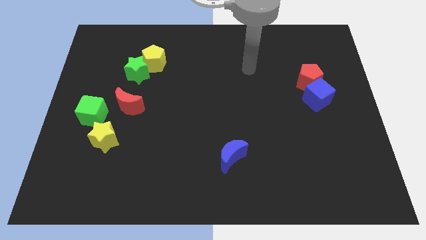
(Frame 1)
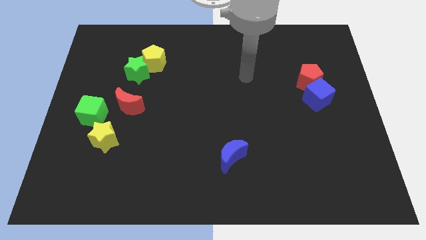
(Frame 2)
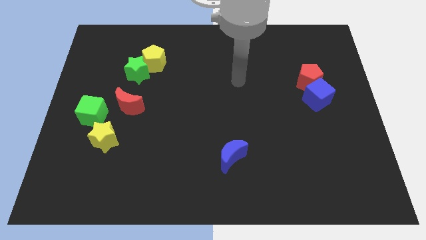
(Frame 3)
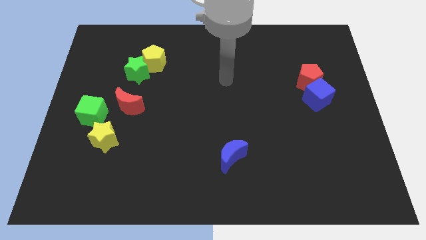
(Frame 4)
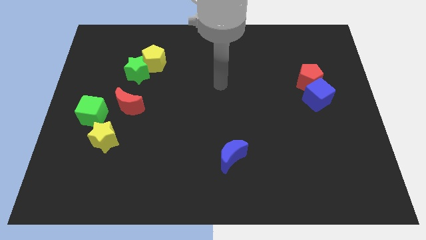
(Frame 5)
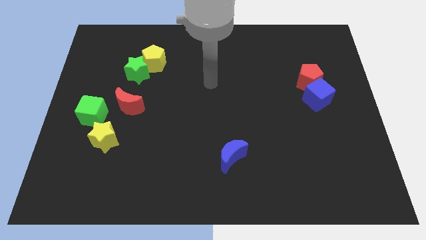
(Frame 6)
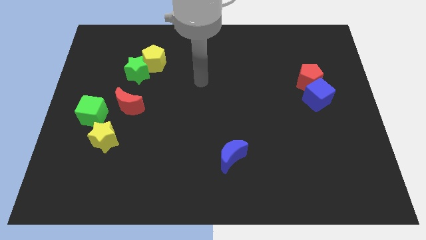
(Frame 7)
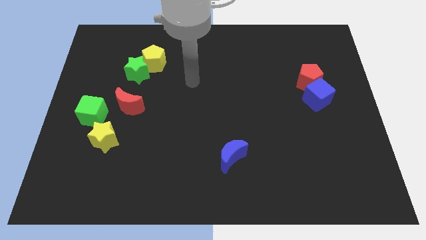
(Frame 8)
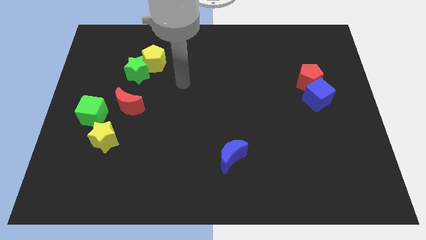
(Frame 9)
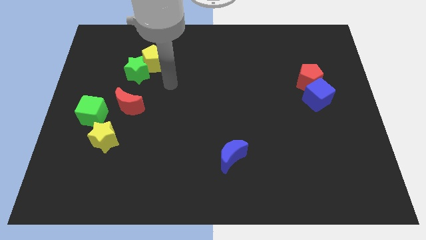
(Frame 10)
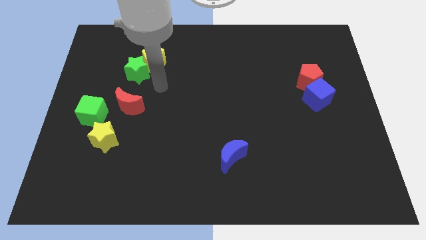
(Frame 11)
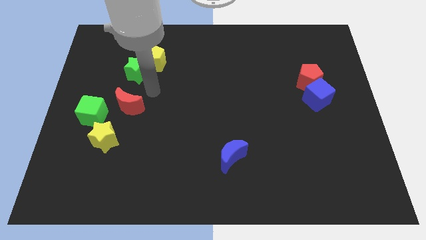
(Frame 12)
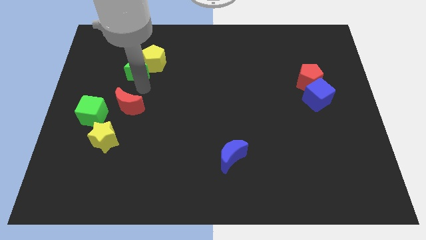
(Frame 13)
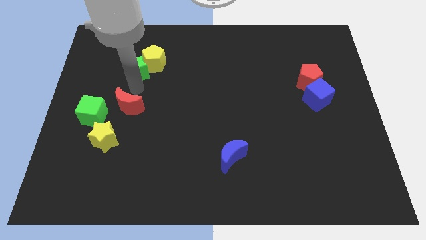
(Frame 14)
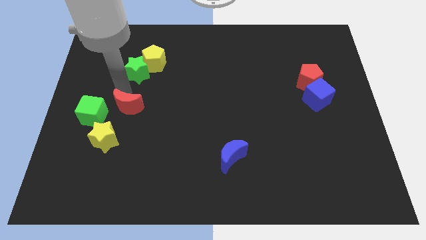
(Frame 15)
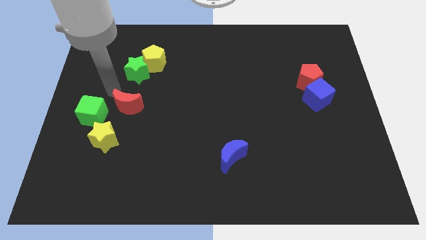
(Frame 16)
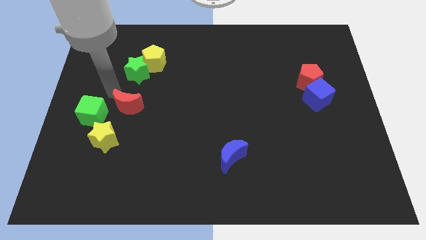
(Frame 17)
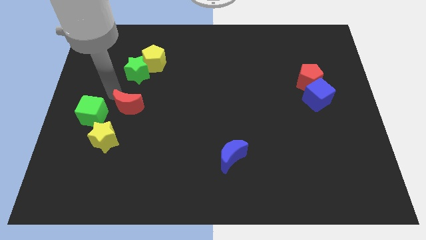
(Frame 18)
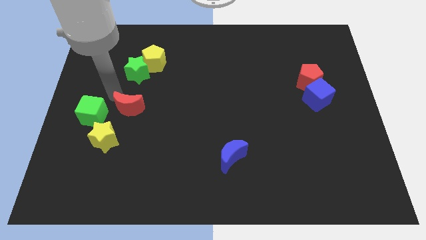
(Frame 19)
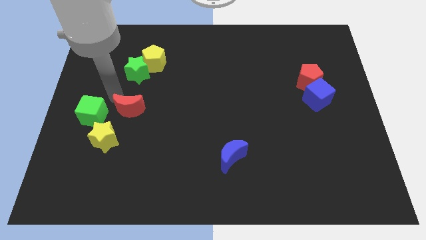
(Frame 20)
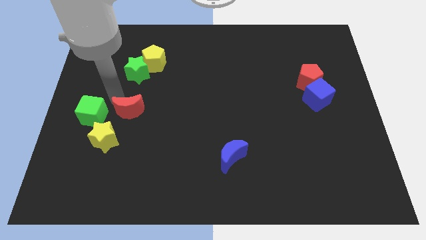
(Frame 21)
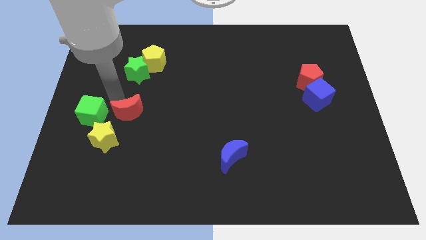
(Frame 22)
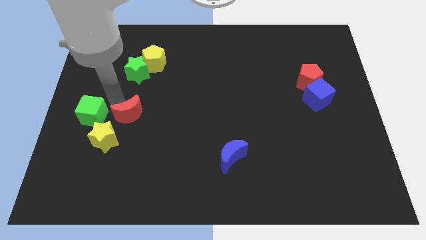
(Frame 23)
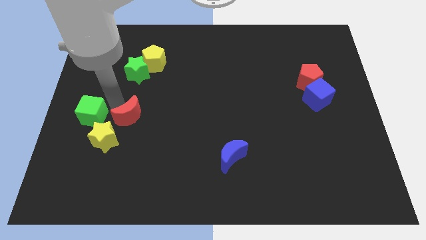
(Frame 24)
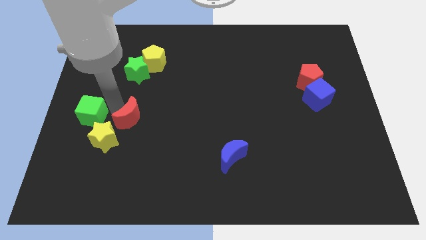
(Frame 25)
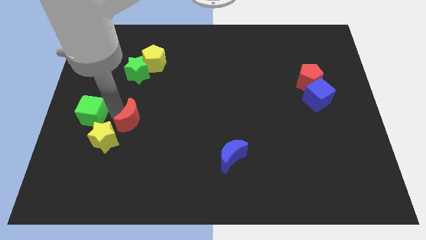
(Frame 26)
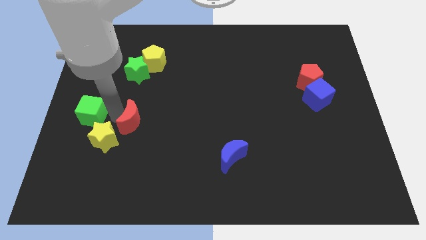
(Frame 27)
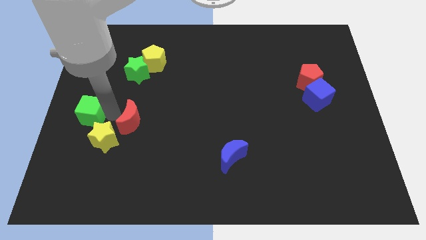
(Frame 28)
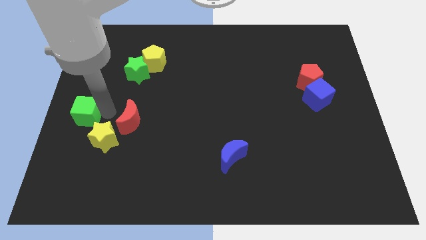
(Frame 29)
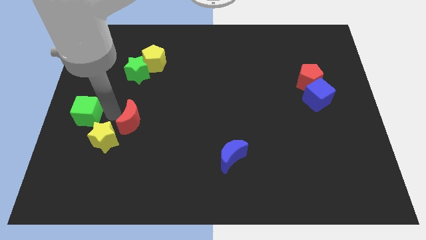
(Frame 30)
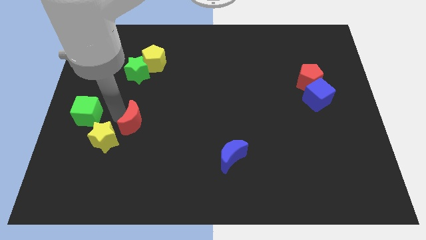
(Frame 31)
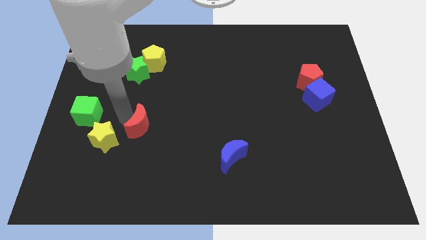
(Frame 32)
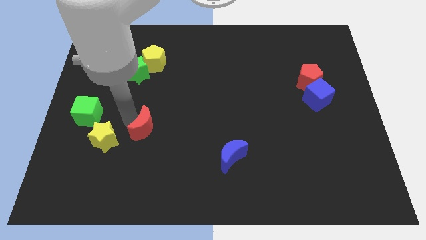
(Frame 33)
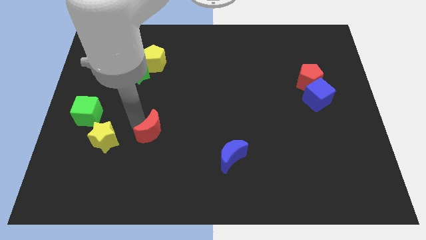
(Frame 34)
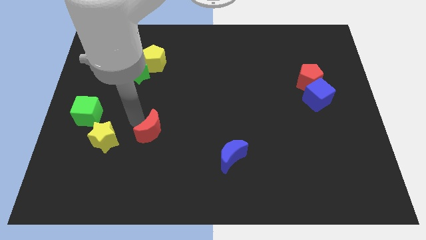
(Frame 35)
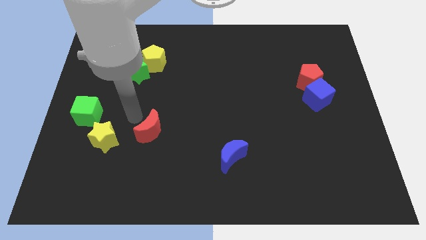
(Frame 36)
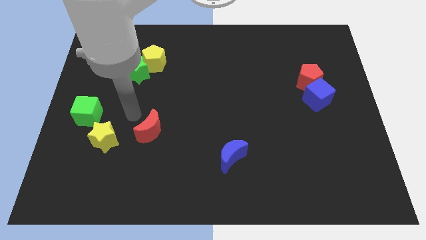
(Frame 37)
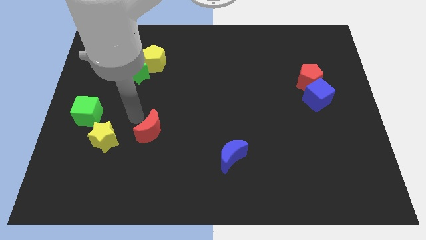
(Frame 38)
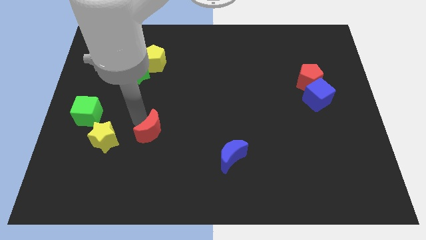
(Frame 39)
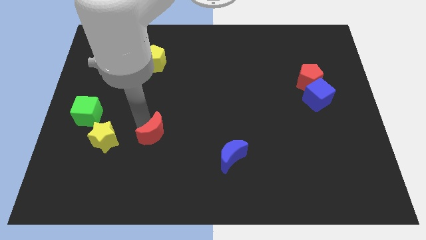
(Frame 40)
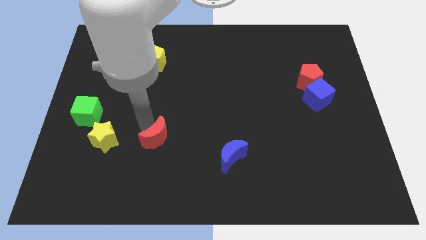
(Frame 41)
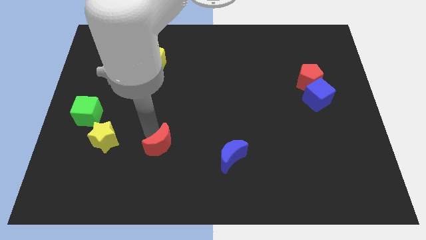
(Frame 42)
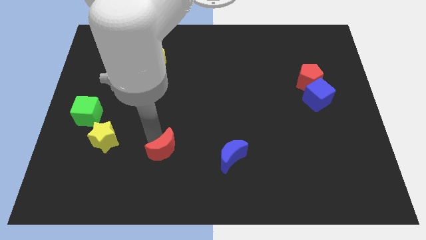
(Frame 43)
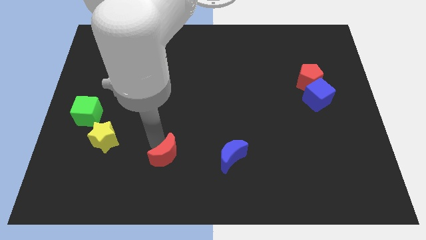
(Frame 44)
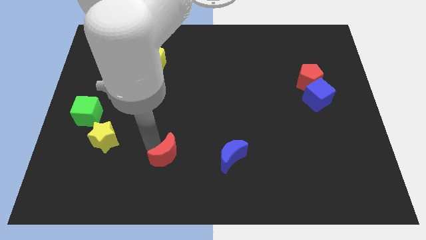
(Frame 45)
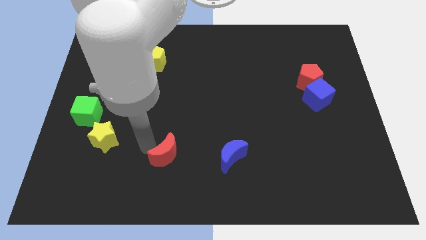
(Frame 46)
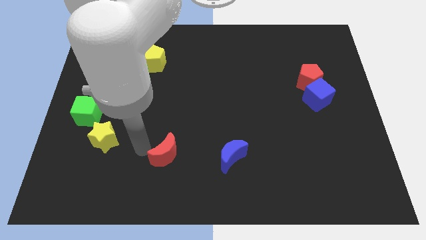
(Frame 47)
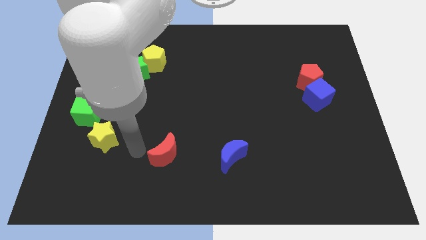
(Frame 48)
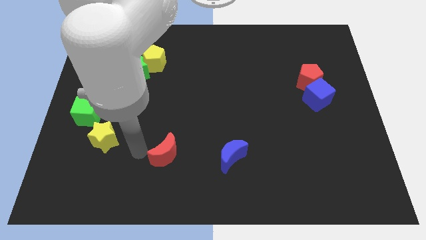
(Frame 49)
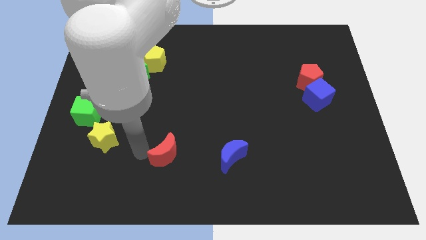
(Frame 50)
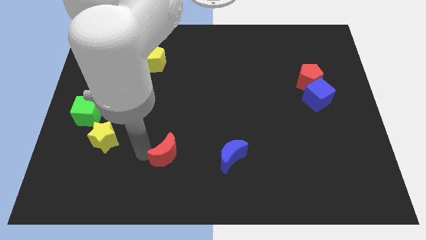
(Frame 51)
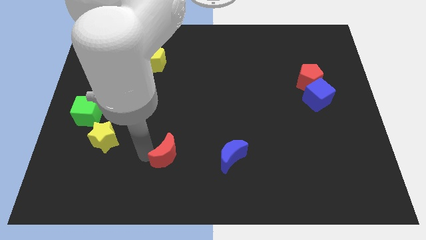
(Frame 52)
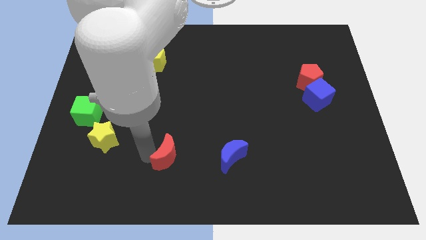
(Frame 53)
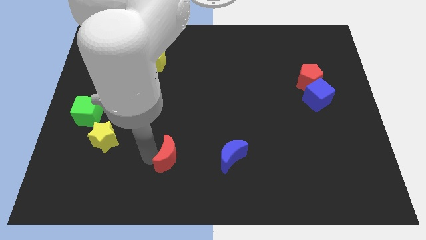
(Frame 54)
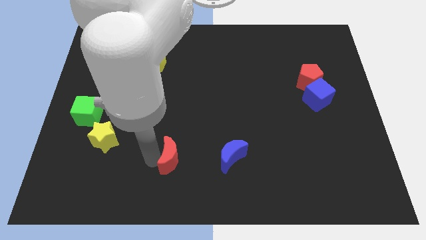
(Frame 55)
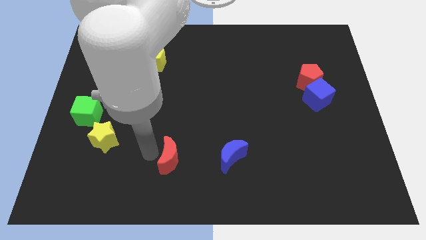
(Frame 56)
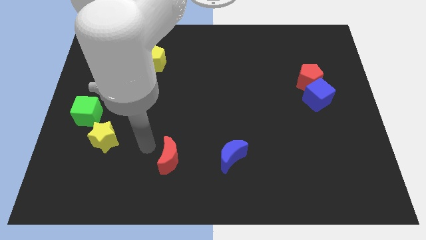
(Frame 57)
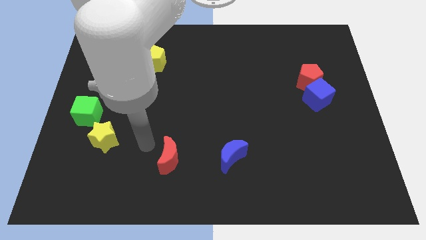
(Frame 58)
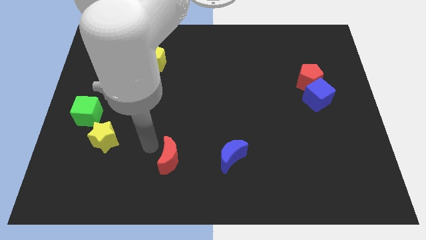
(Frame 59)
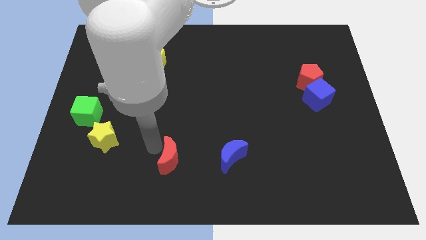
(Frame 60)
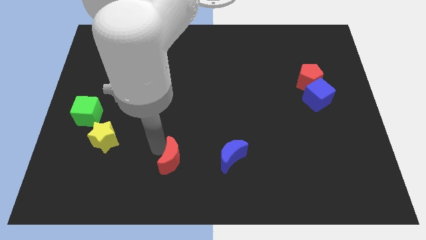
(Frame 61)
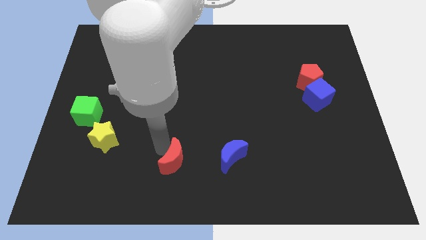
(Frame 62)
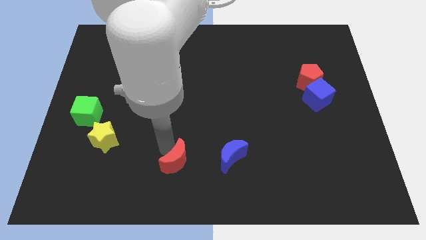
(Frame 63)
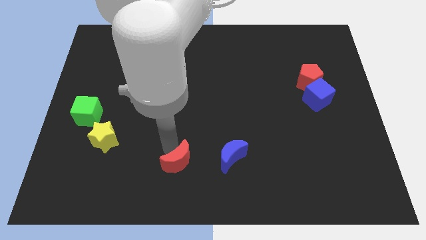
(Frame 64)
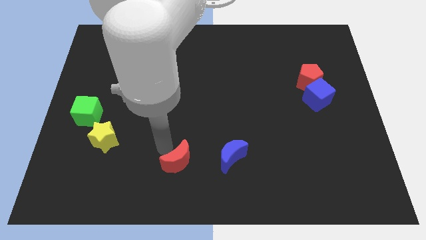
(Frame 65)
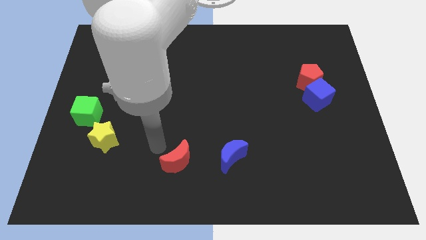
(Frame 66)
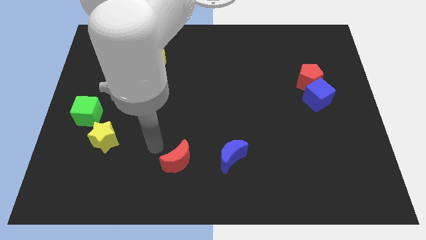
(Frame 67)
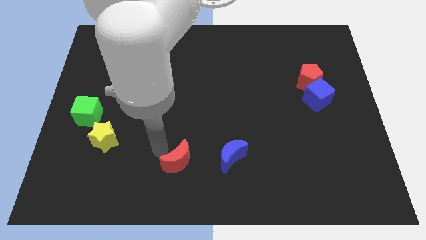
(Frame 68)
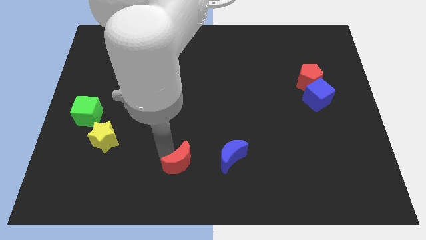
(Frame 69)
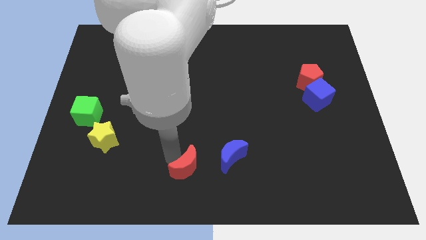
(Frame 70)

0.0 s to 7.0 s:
slide the red moon diagonally down and to the left of the blue moon
